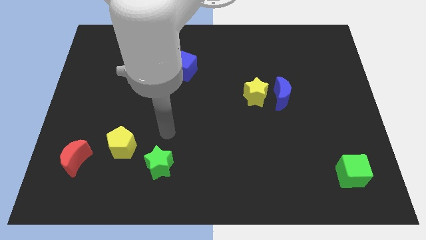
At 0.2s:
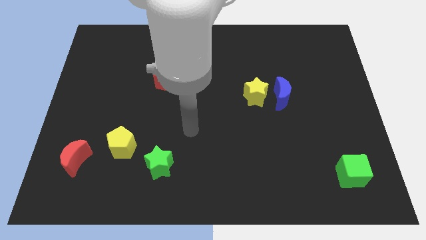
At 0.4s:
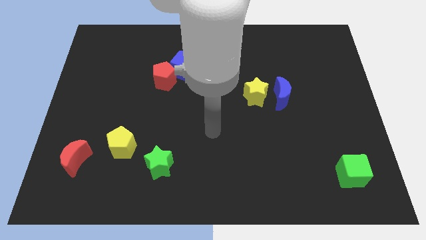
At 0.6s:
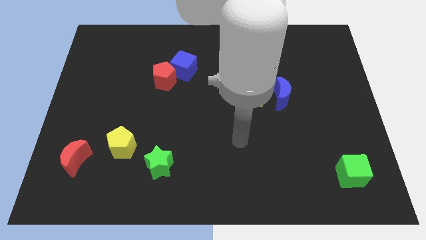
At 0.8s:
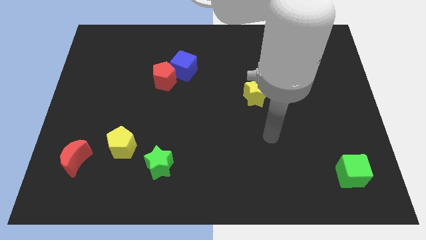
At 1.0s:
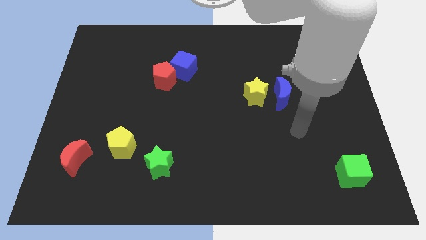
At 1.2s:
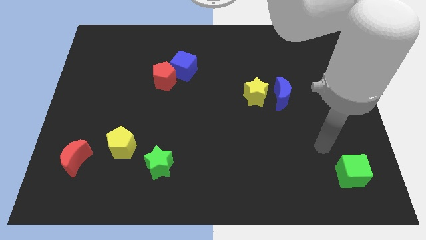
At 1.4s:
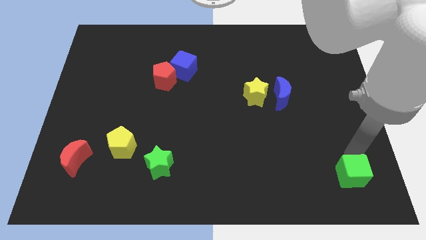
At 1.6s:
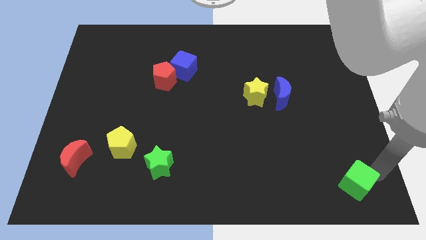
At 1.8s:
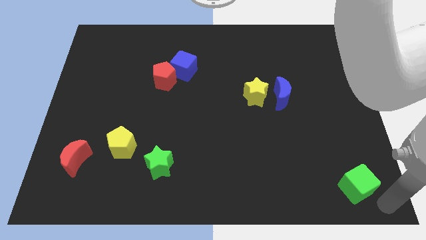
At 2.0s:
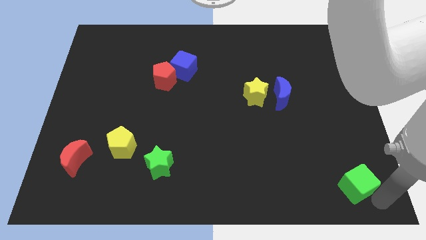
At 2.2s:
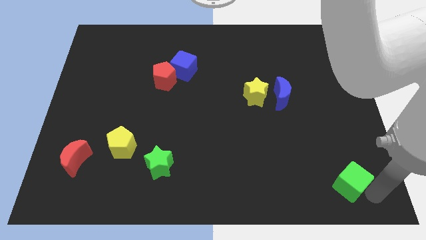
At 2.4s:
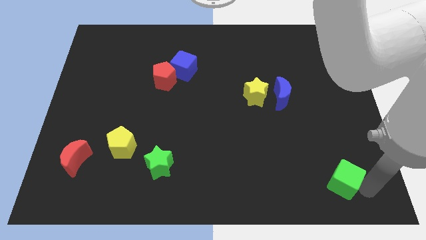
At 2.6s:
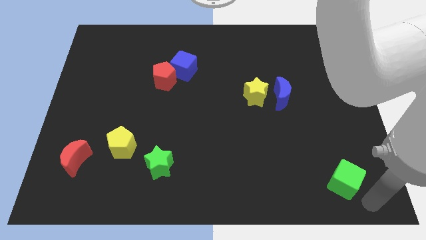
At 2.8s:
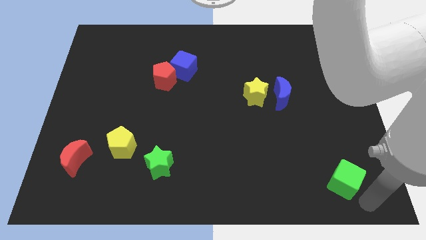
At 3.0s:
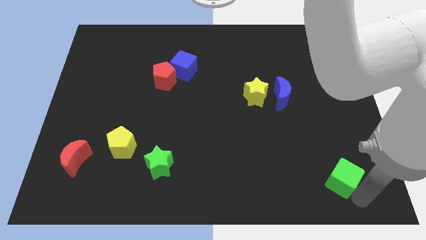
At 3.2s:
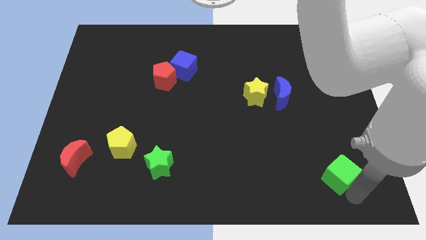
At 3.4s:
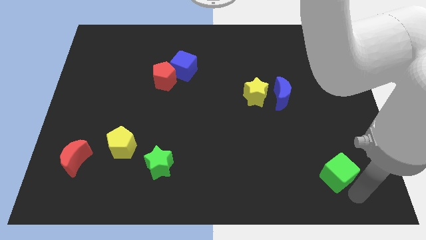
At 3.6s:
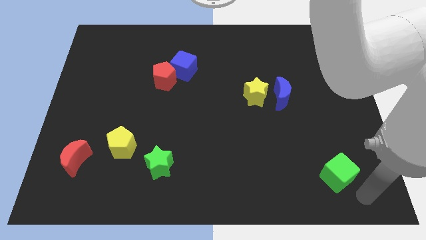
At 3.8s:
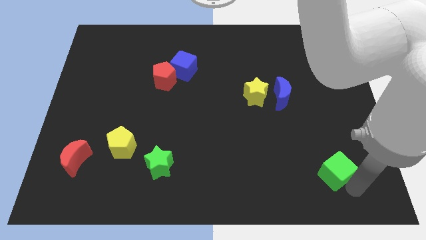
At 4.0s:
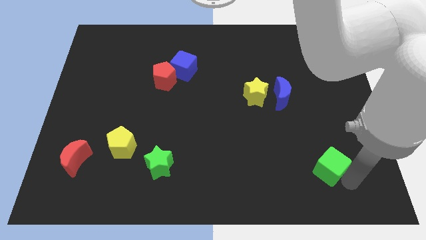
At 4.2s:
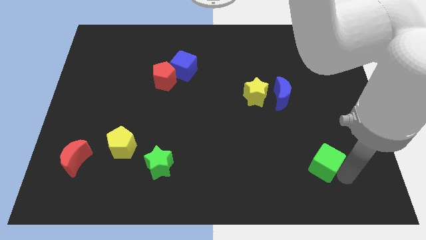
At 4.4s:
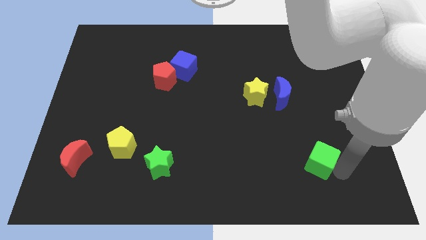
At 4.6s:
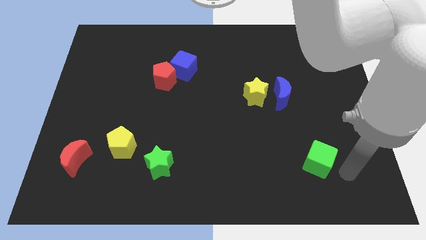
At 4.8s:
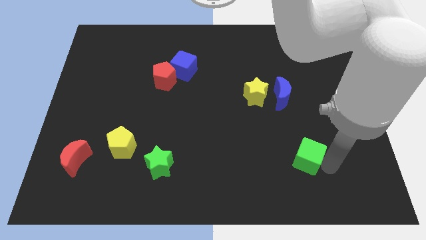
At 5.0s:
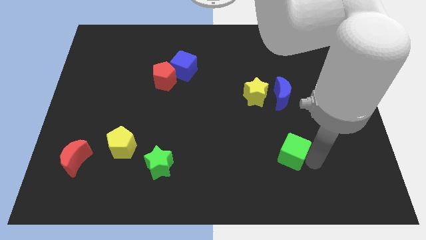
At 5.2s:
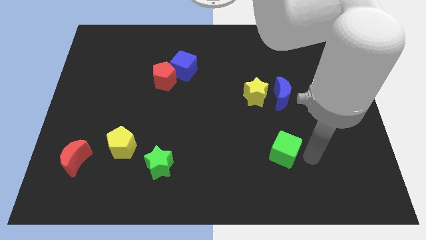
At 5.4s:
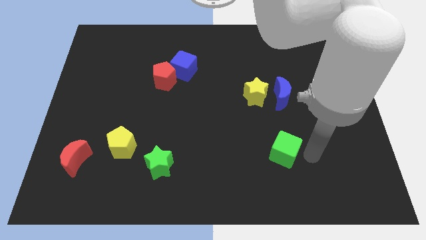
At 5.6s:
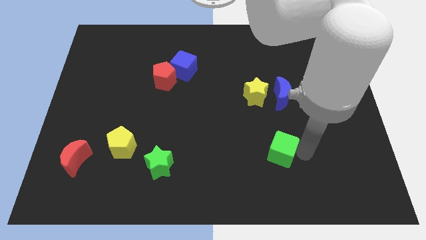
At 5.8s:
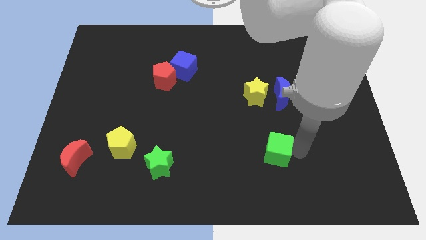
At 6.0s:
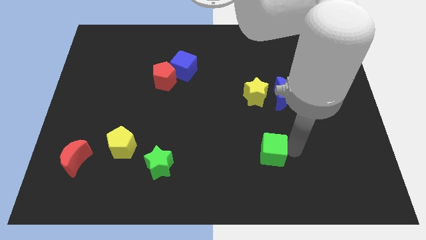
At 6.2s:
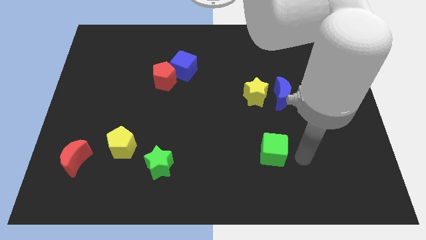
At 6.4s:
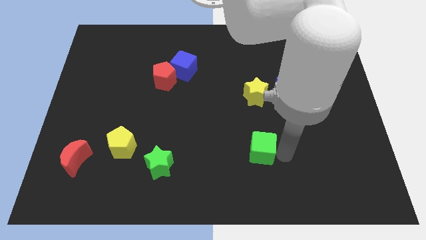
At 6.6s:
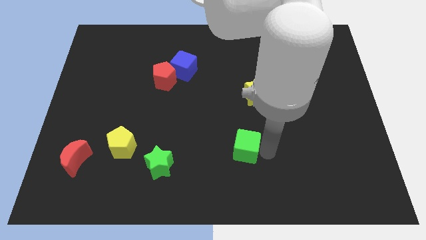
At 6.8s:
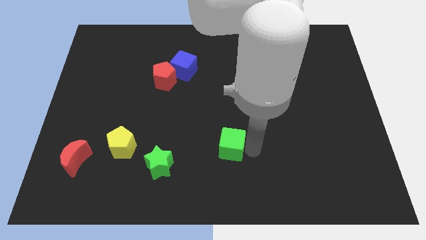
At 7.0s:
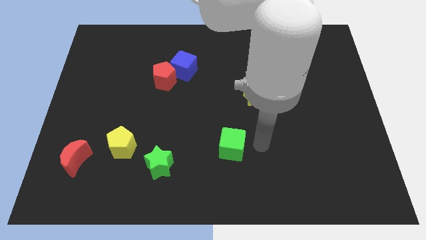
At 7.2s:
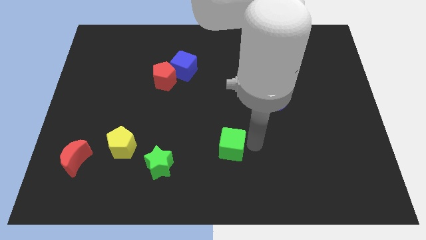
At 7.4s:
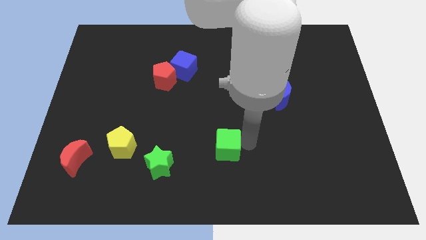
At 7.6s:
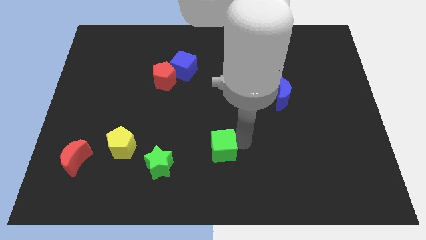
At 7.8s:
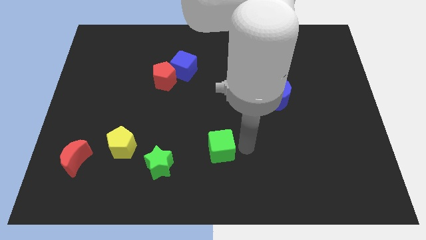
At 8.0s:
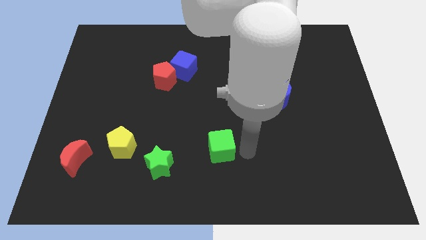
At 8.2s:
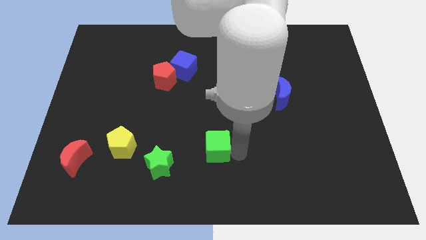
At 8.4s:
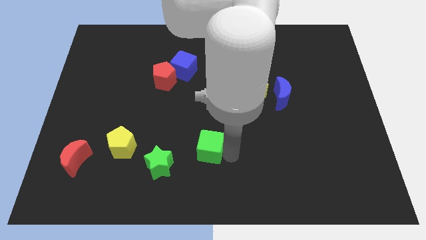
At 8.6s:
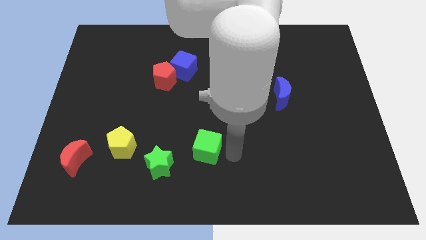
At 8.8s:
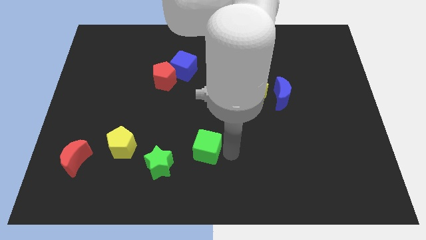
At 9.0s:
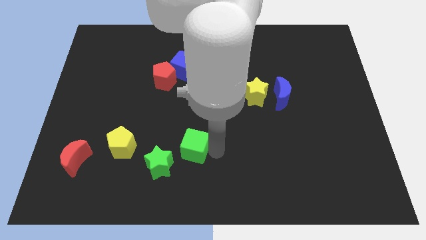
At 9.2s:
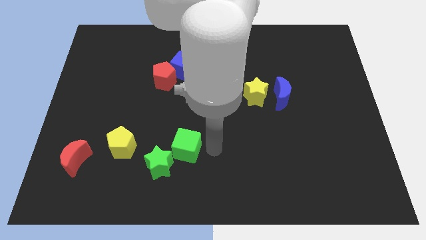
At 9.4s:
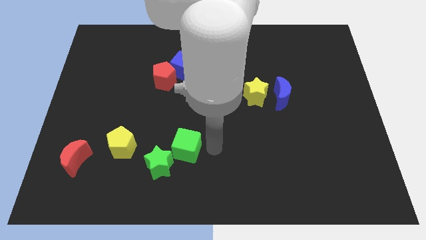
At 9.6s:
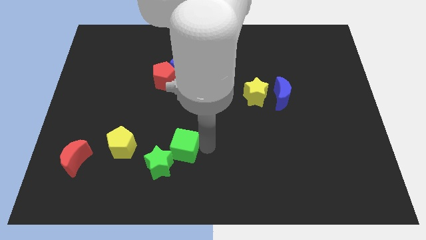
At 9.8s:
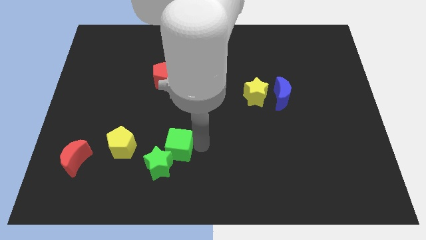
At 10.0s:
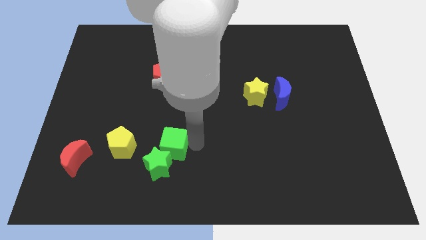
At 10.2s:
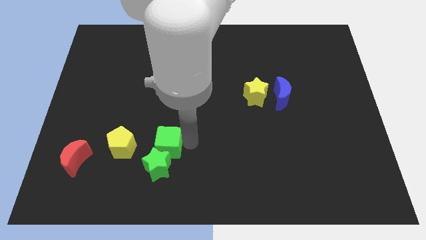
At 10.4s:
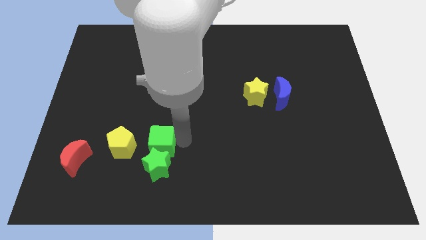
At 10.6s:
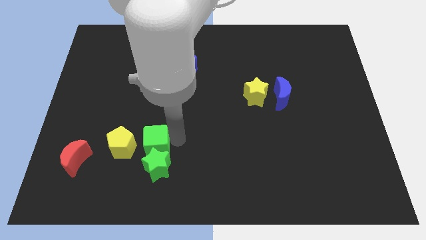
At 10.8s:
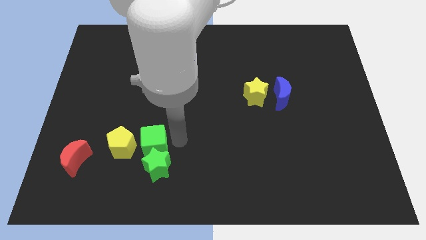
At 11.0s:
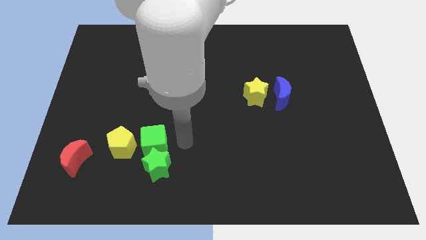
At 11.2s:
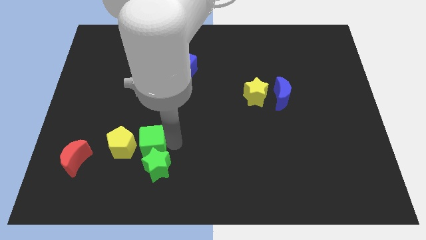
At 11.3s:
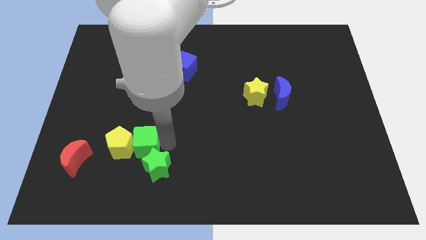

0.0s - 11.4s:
push the green cube close to the yellow pentagon

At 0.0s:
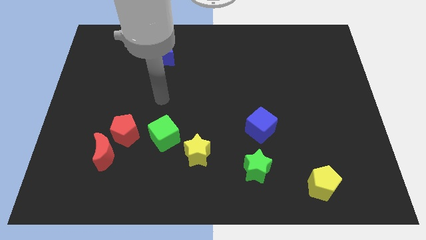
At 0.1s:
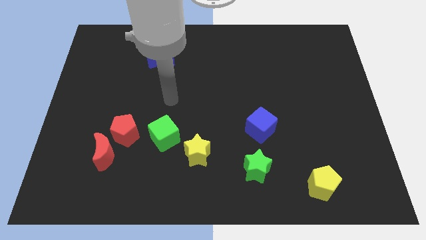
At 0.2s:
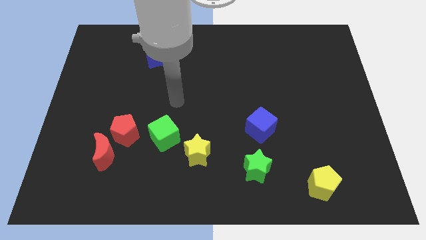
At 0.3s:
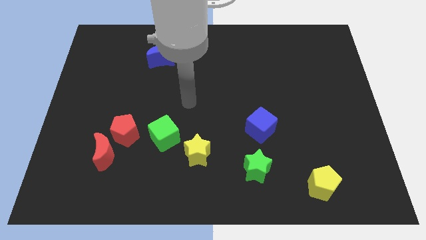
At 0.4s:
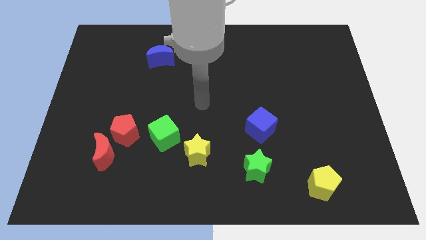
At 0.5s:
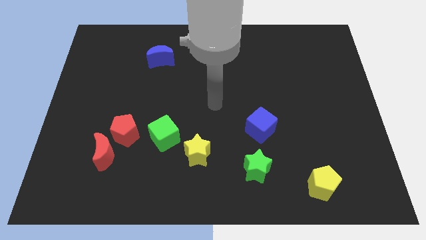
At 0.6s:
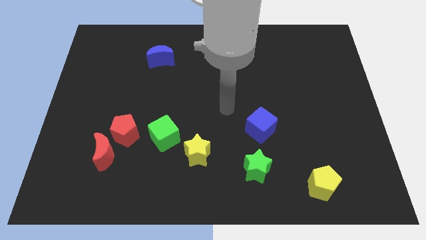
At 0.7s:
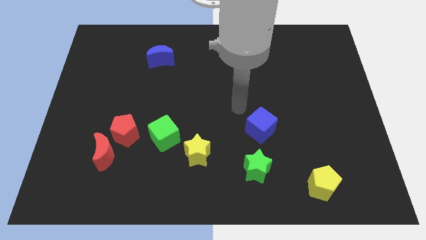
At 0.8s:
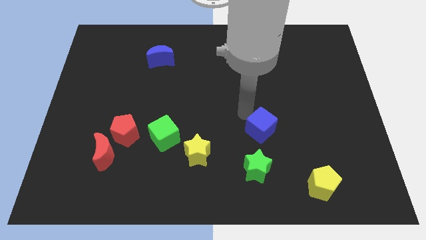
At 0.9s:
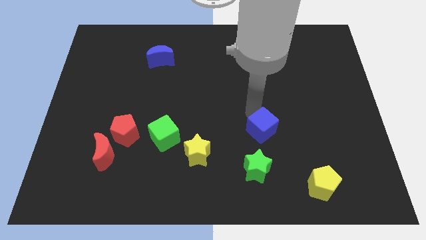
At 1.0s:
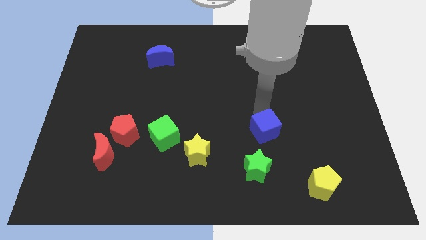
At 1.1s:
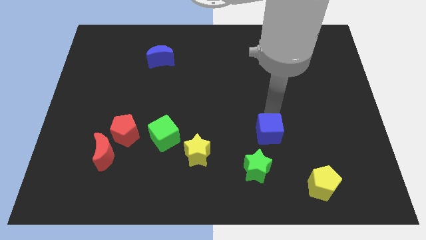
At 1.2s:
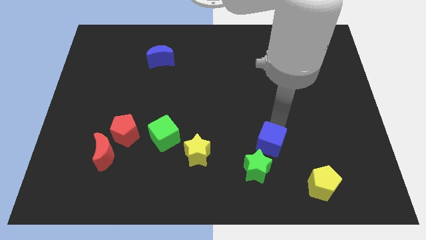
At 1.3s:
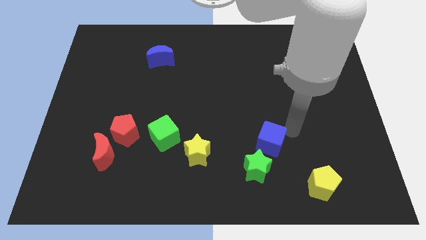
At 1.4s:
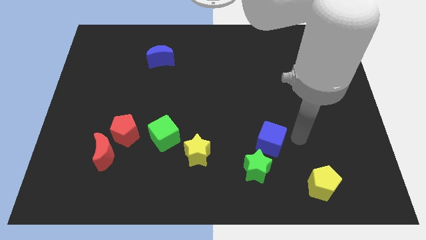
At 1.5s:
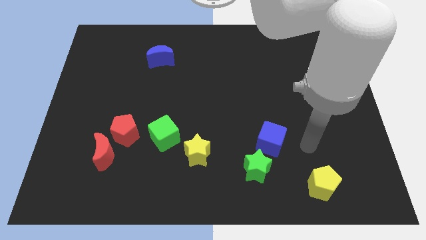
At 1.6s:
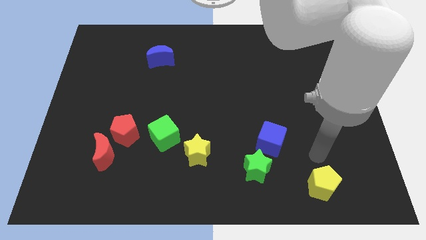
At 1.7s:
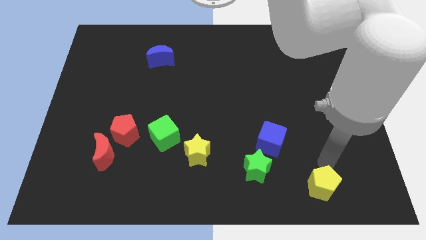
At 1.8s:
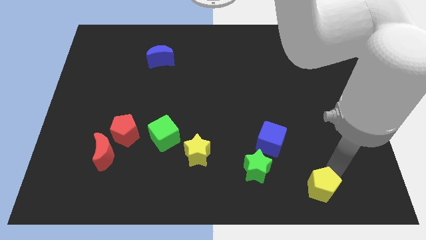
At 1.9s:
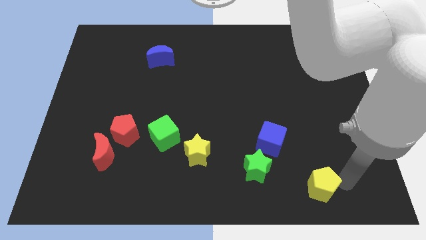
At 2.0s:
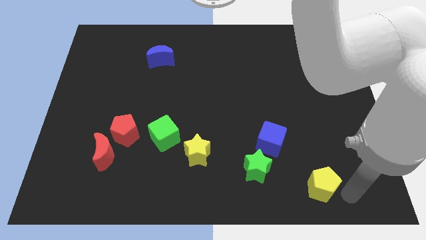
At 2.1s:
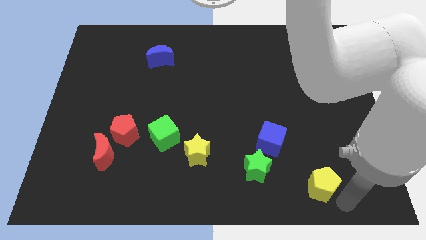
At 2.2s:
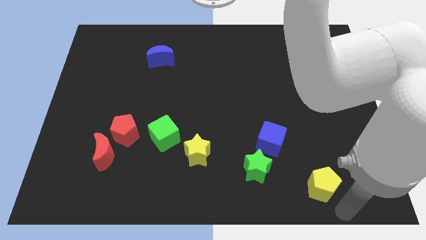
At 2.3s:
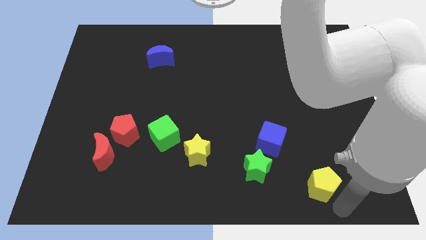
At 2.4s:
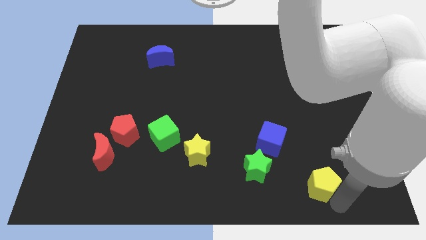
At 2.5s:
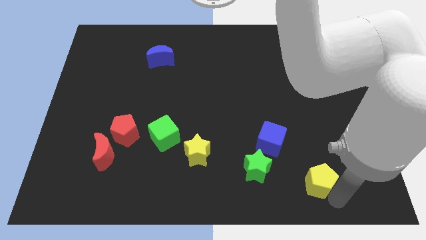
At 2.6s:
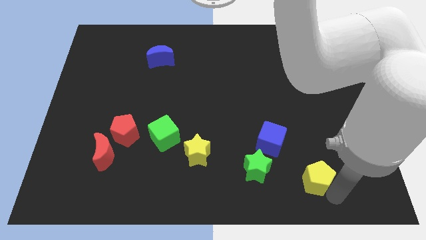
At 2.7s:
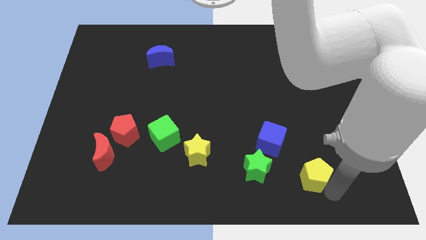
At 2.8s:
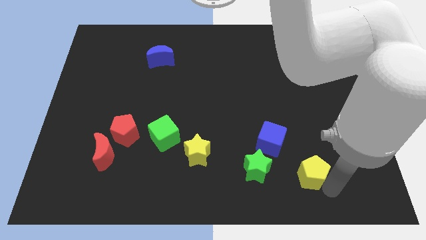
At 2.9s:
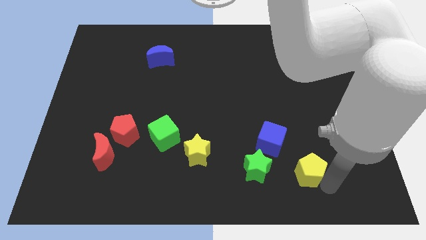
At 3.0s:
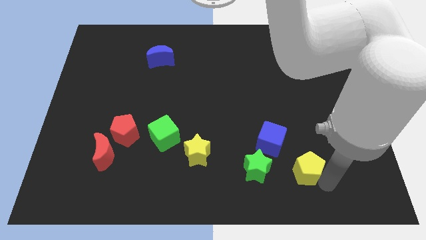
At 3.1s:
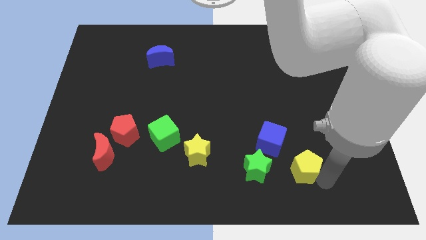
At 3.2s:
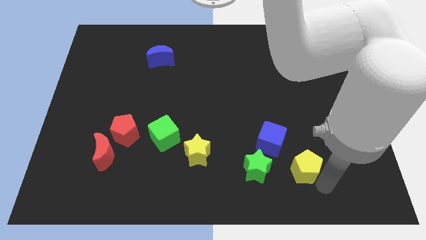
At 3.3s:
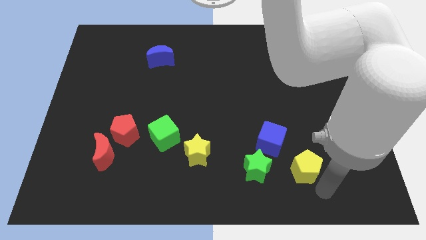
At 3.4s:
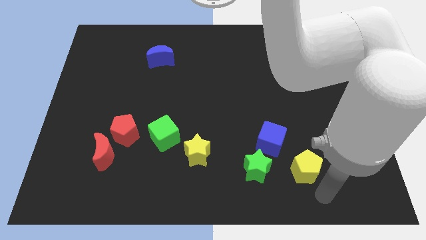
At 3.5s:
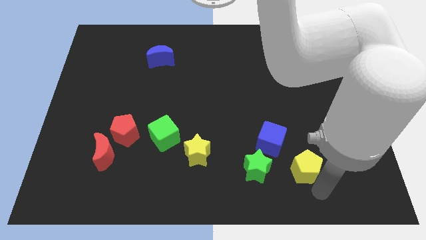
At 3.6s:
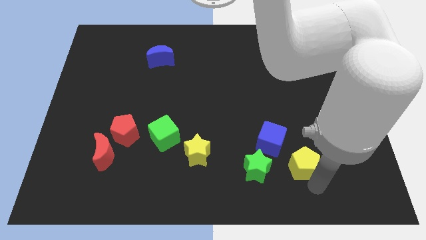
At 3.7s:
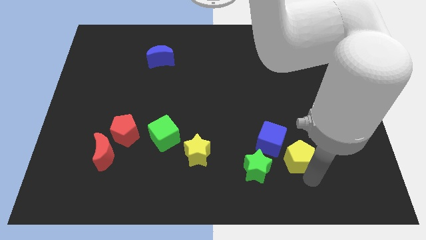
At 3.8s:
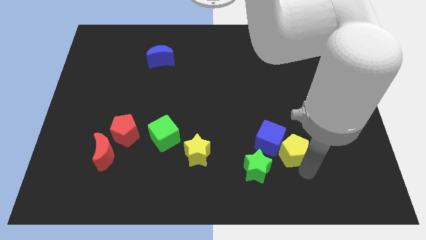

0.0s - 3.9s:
put the yellow pentagon to the blue cube
